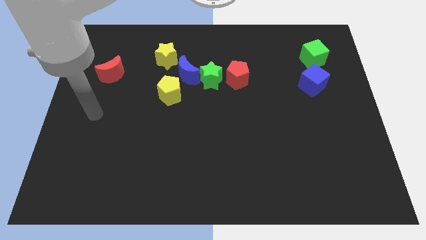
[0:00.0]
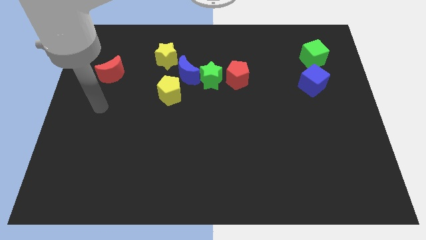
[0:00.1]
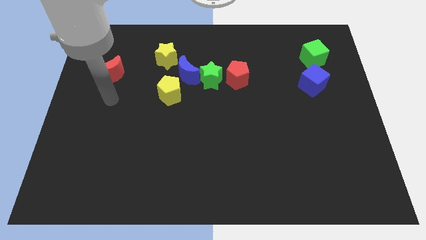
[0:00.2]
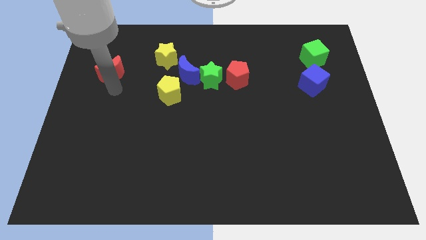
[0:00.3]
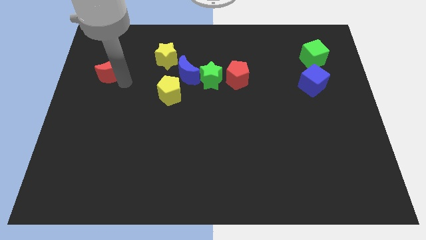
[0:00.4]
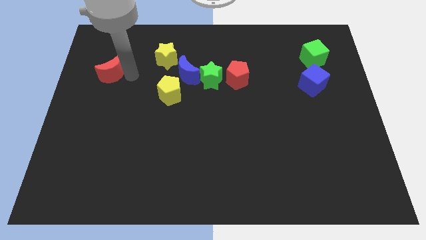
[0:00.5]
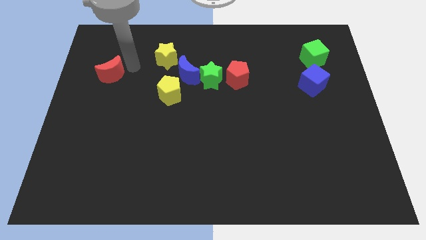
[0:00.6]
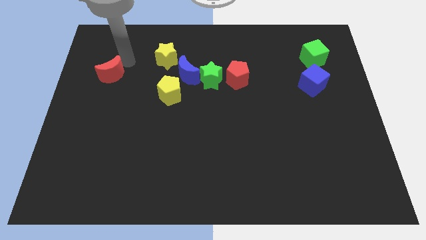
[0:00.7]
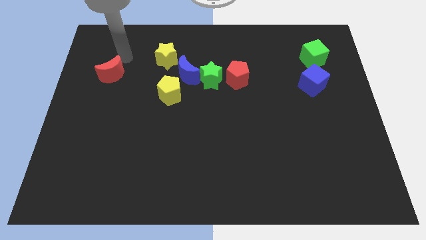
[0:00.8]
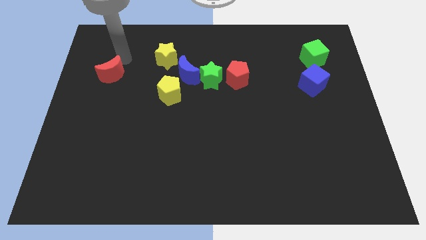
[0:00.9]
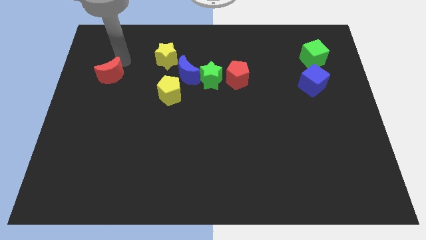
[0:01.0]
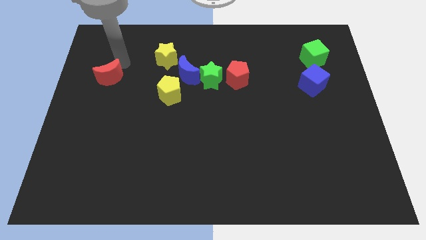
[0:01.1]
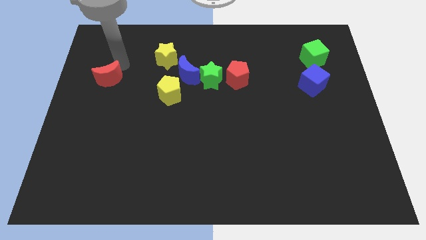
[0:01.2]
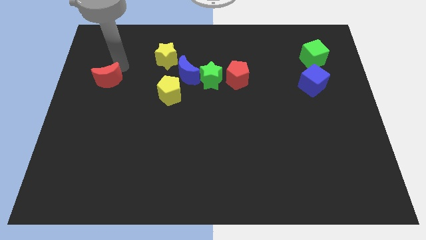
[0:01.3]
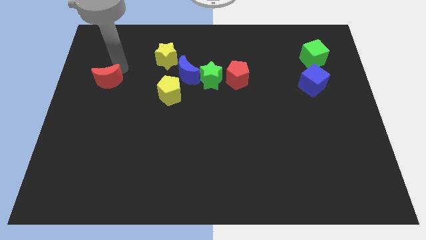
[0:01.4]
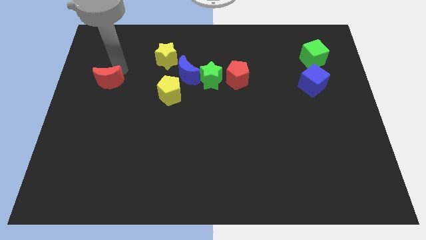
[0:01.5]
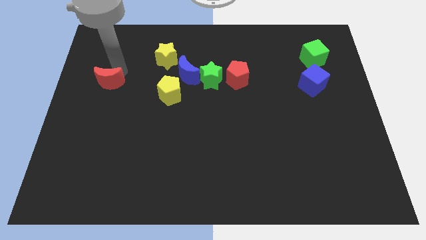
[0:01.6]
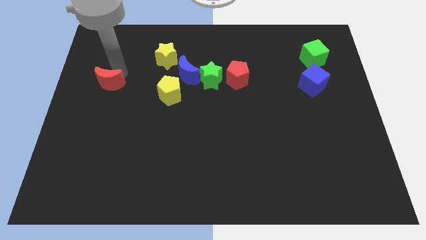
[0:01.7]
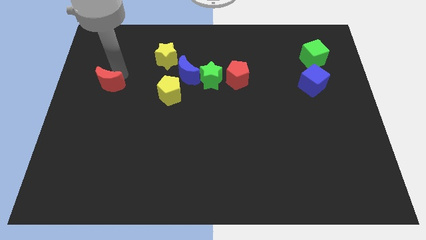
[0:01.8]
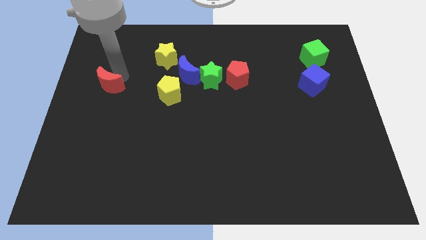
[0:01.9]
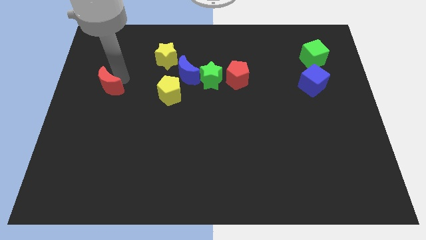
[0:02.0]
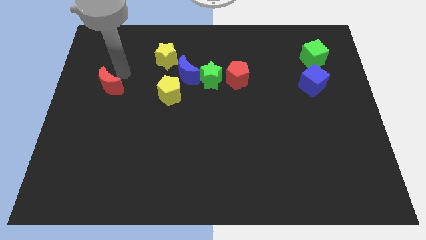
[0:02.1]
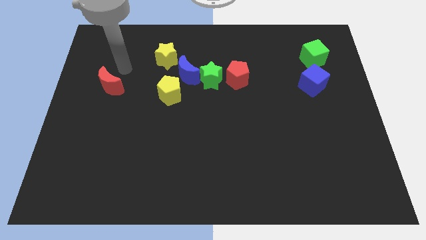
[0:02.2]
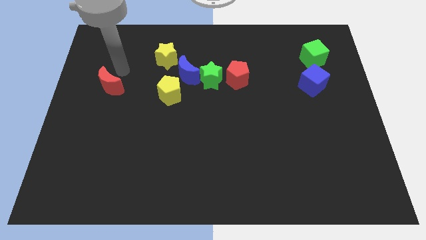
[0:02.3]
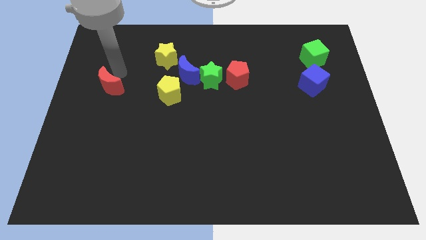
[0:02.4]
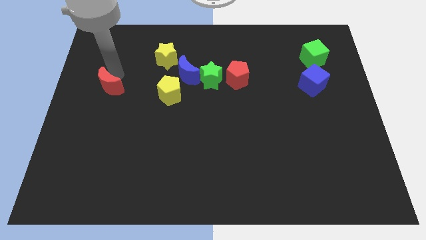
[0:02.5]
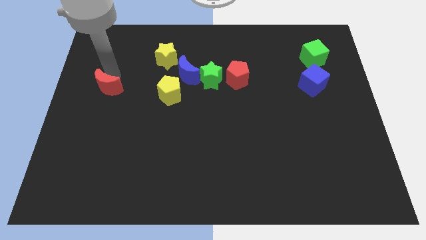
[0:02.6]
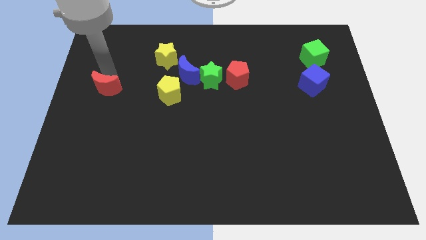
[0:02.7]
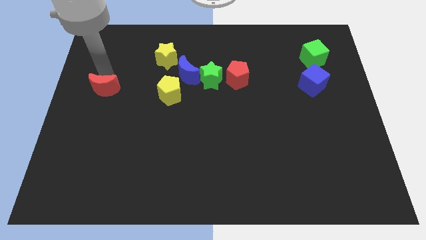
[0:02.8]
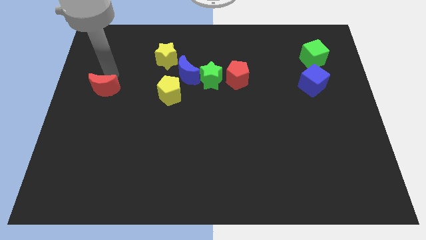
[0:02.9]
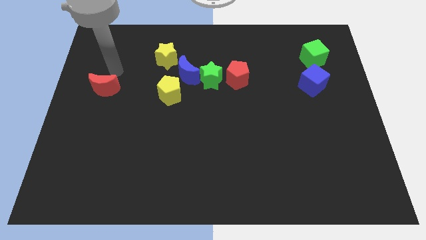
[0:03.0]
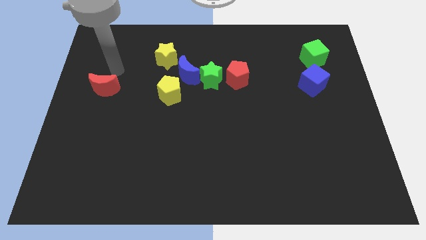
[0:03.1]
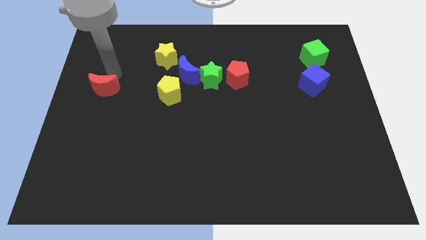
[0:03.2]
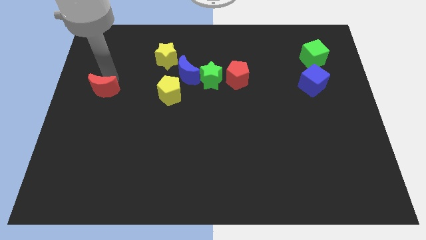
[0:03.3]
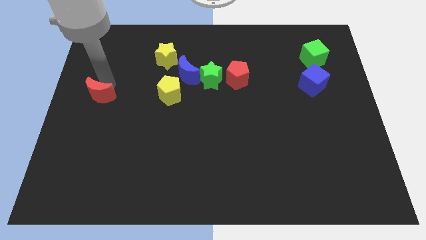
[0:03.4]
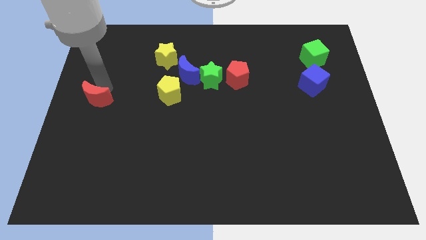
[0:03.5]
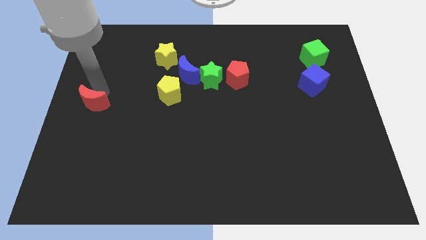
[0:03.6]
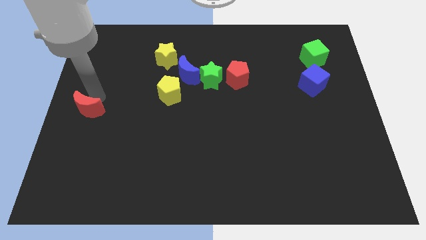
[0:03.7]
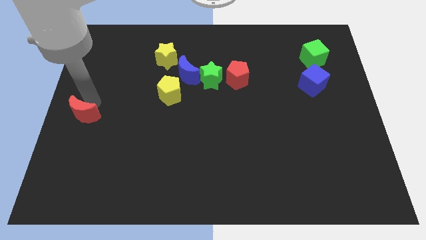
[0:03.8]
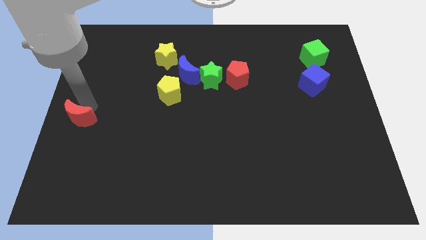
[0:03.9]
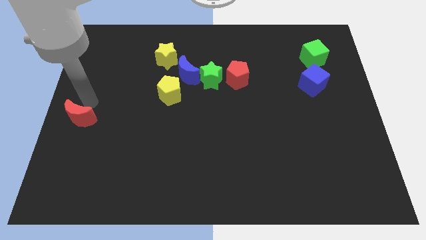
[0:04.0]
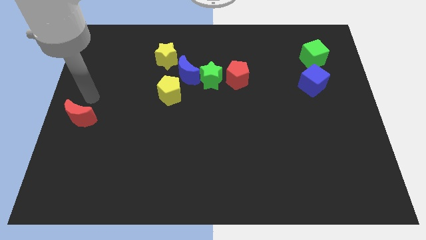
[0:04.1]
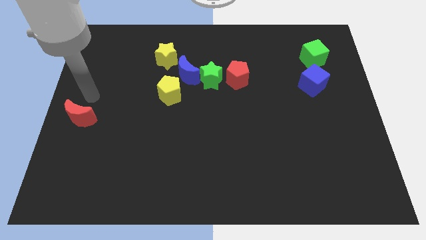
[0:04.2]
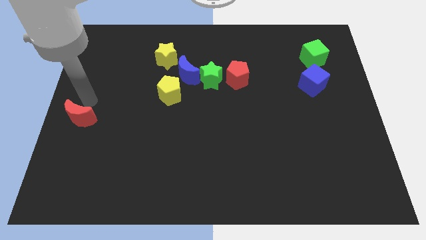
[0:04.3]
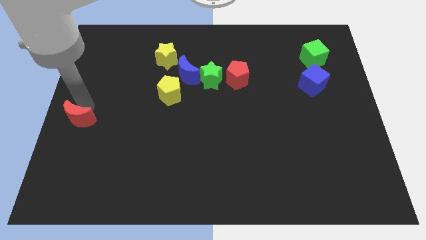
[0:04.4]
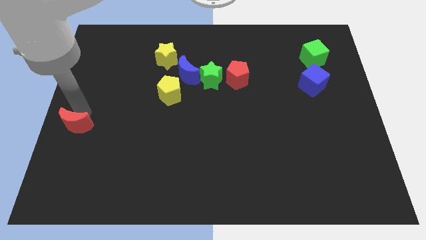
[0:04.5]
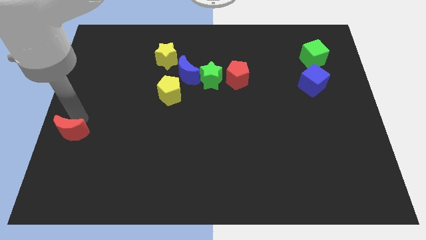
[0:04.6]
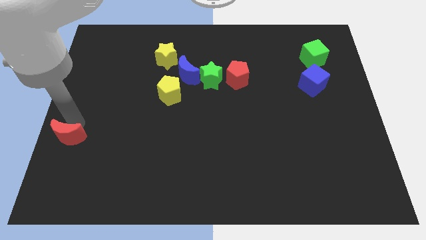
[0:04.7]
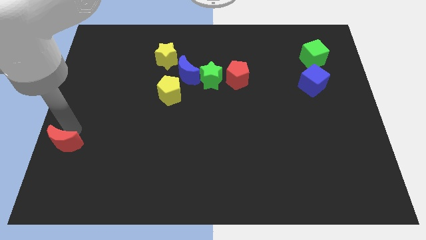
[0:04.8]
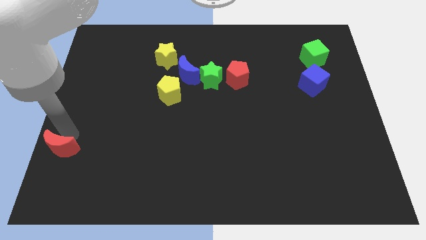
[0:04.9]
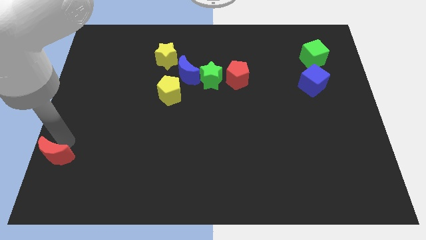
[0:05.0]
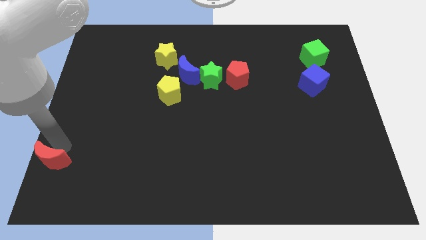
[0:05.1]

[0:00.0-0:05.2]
push the red moon to the bottom left of the board

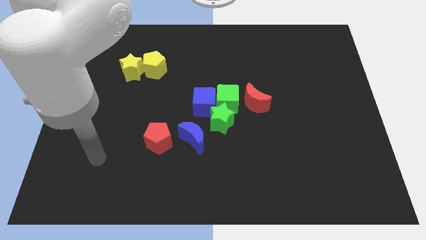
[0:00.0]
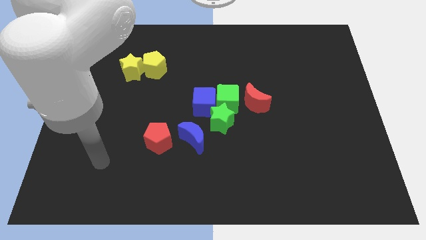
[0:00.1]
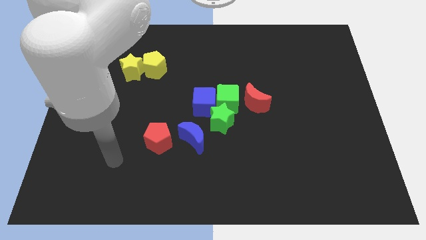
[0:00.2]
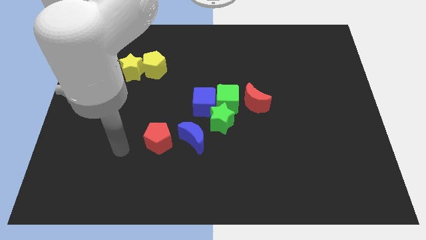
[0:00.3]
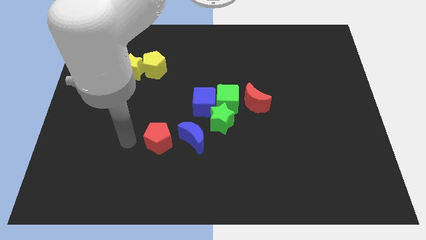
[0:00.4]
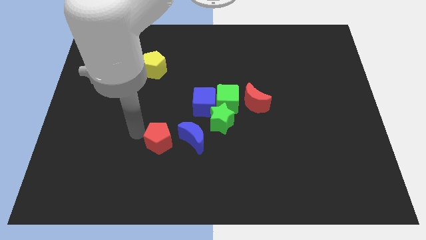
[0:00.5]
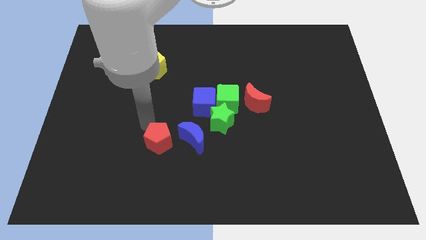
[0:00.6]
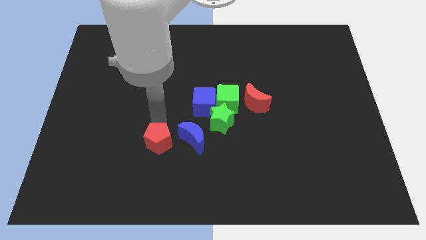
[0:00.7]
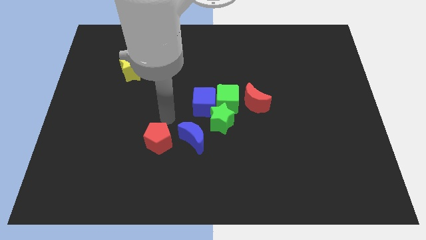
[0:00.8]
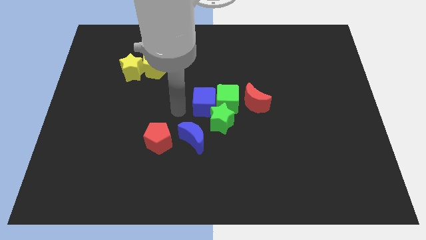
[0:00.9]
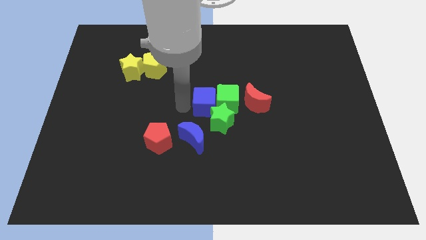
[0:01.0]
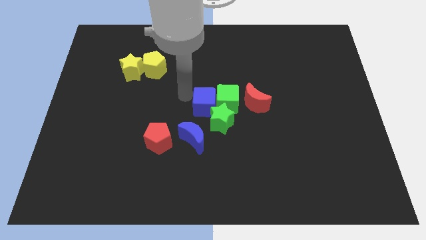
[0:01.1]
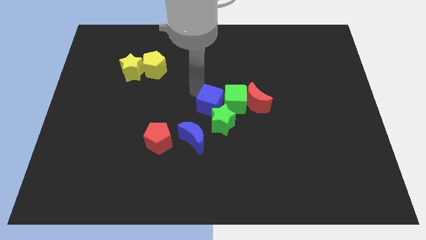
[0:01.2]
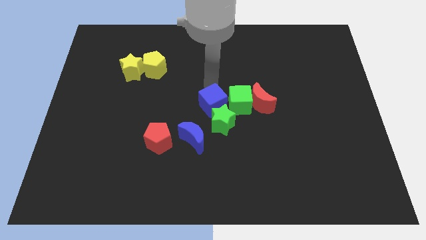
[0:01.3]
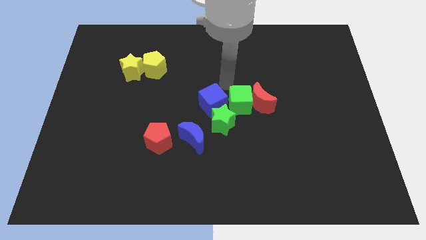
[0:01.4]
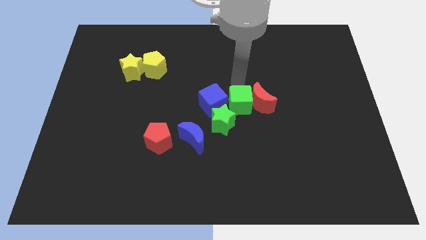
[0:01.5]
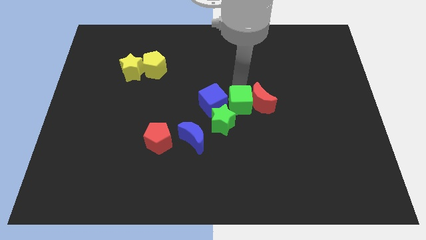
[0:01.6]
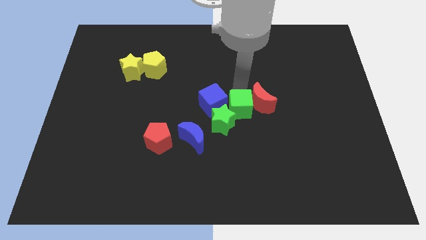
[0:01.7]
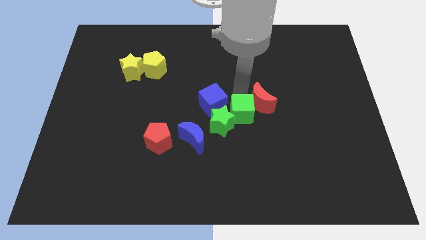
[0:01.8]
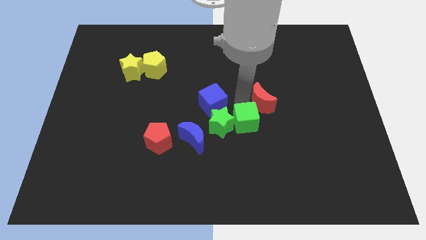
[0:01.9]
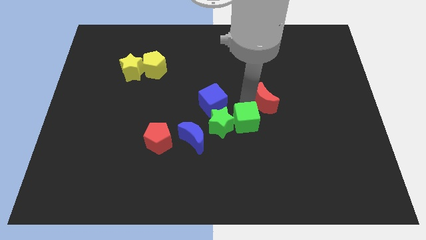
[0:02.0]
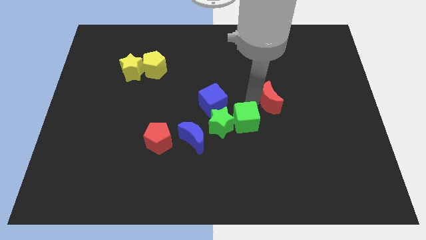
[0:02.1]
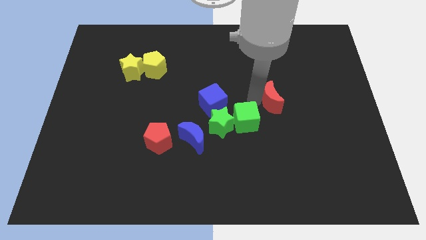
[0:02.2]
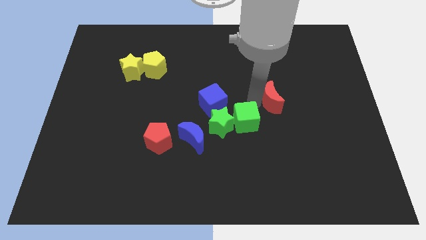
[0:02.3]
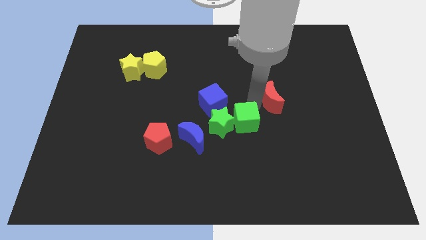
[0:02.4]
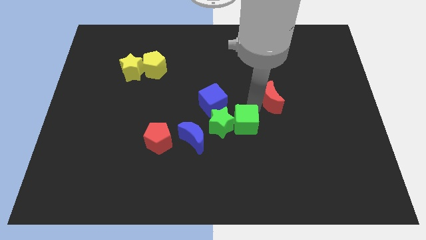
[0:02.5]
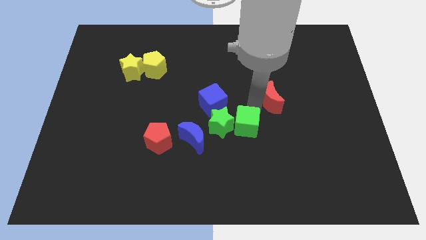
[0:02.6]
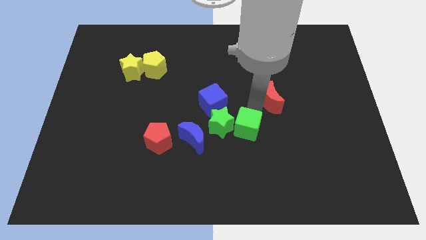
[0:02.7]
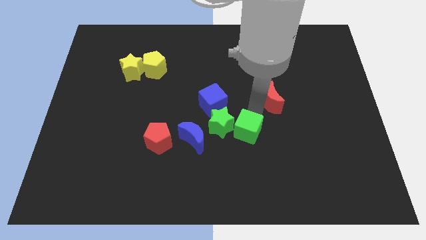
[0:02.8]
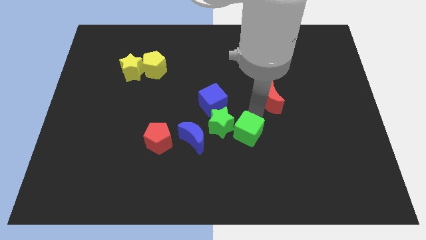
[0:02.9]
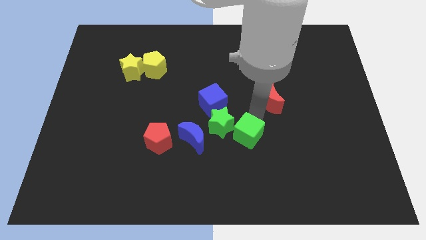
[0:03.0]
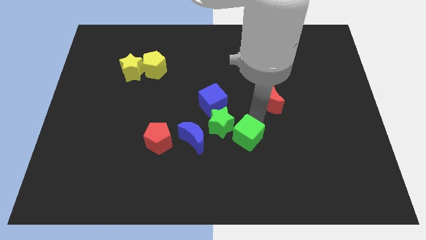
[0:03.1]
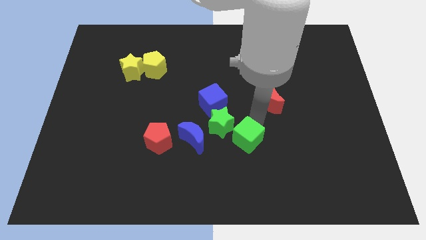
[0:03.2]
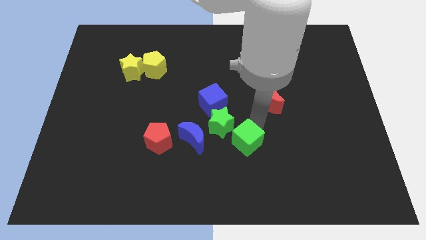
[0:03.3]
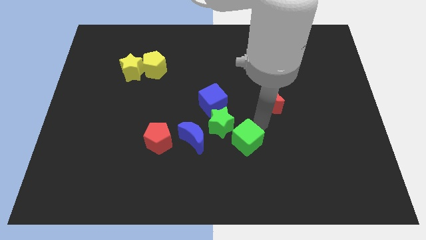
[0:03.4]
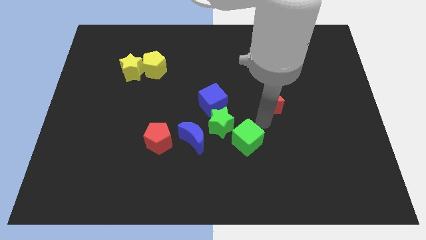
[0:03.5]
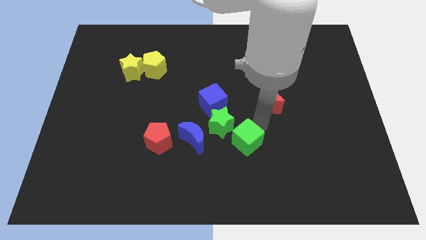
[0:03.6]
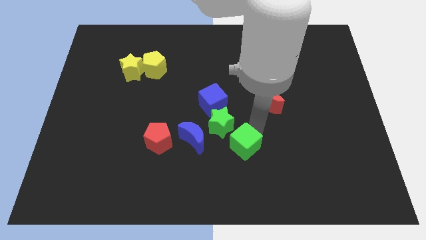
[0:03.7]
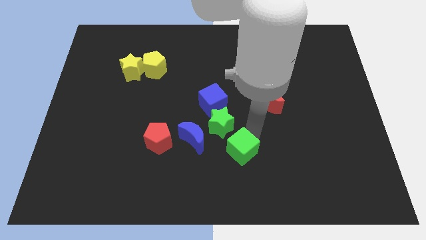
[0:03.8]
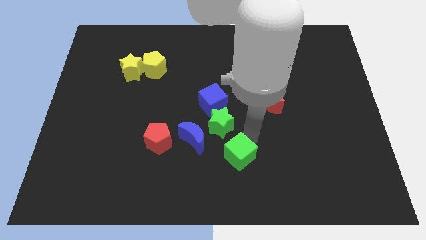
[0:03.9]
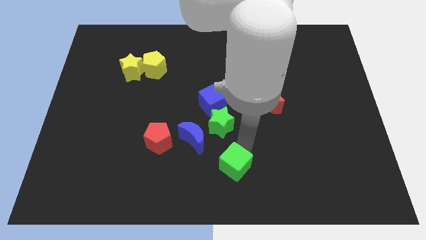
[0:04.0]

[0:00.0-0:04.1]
push the green cube to the bottom side
